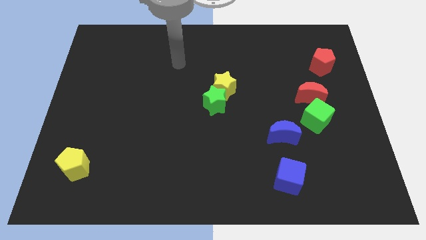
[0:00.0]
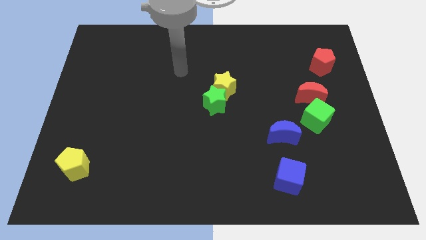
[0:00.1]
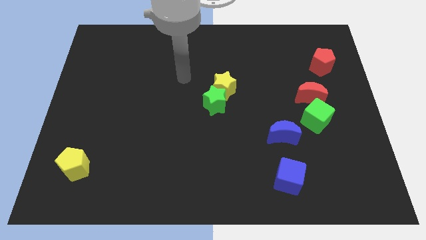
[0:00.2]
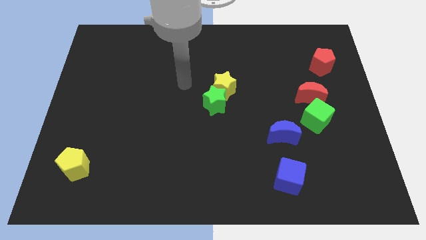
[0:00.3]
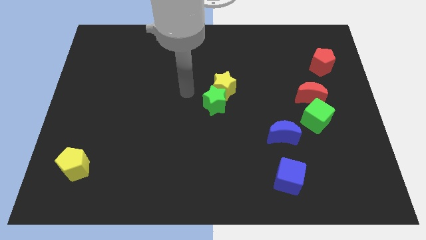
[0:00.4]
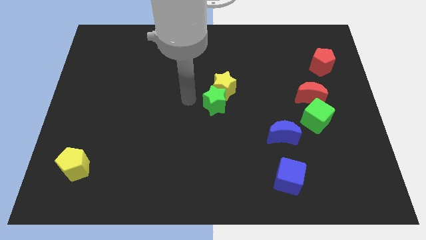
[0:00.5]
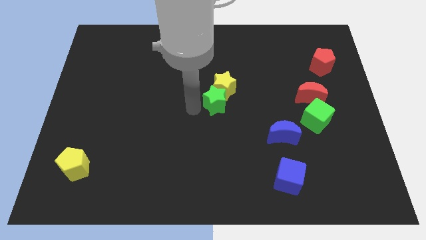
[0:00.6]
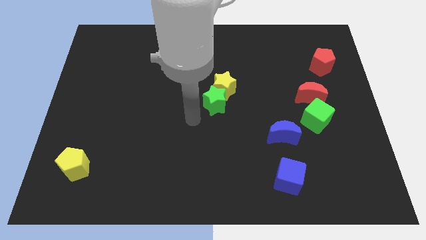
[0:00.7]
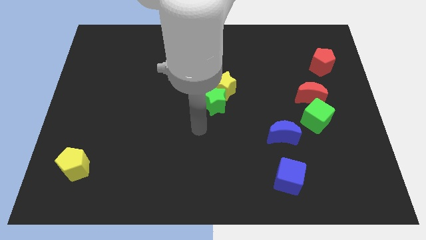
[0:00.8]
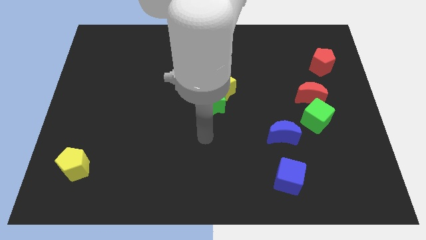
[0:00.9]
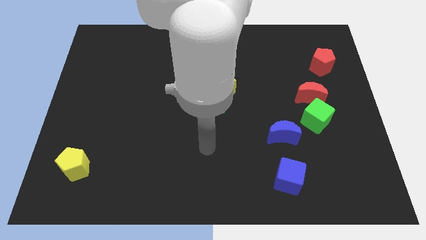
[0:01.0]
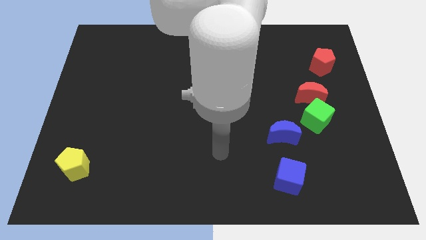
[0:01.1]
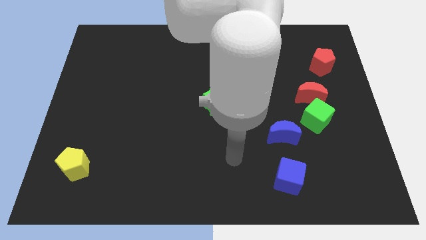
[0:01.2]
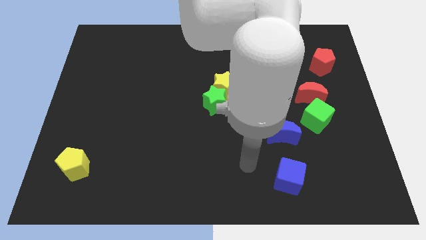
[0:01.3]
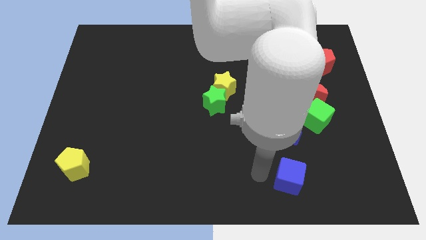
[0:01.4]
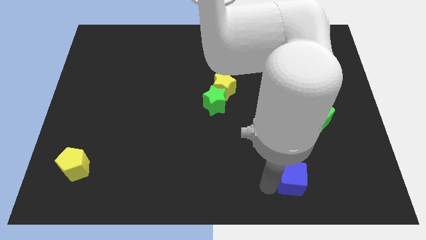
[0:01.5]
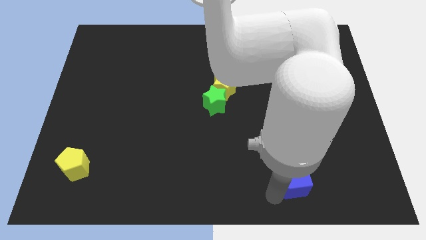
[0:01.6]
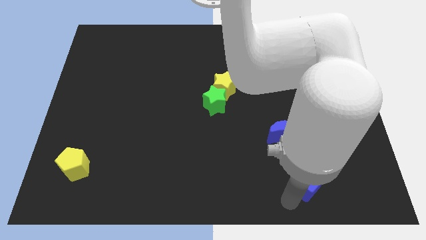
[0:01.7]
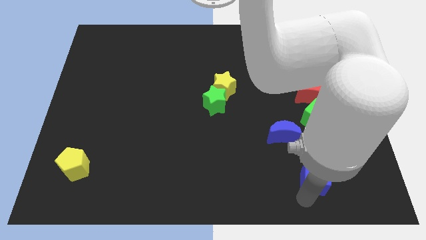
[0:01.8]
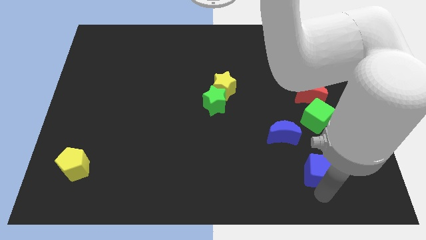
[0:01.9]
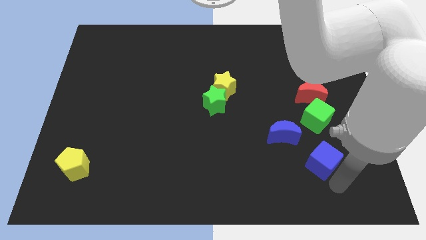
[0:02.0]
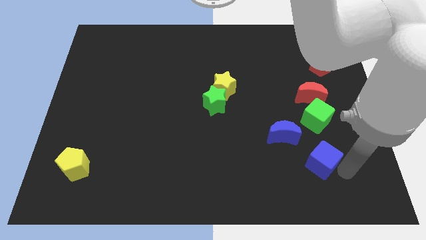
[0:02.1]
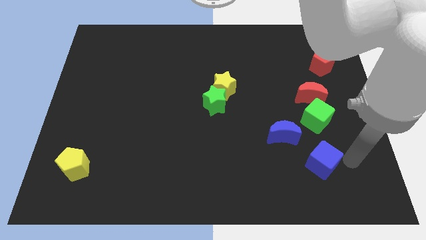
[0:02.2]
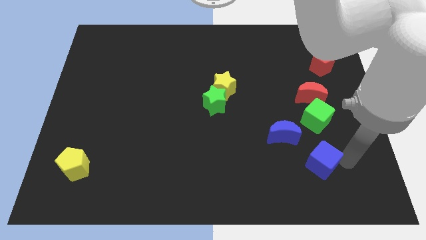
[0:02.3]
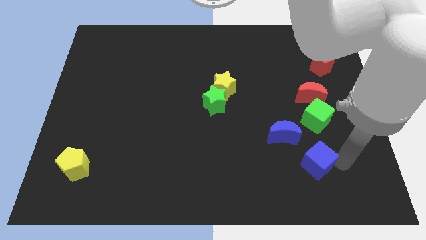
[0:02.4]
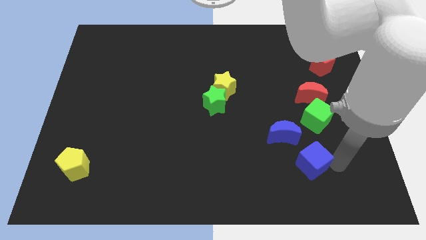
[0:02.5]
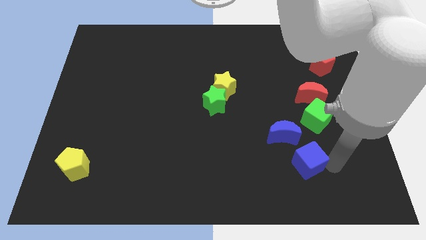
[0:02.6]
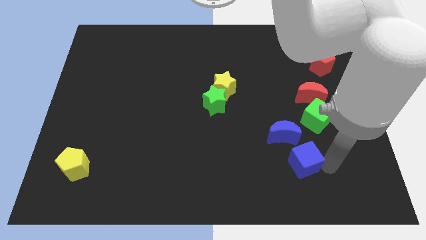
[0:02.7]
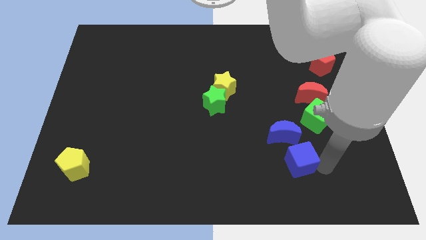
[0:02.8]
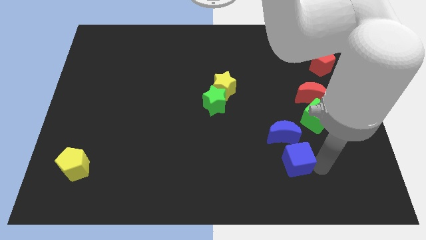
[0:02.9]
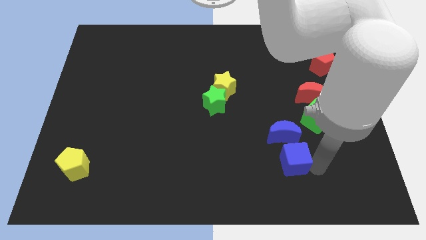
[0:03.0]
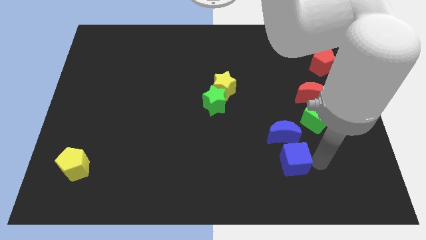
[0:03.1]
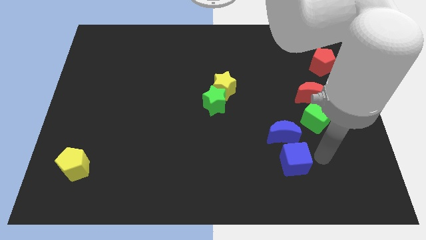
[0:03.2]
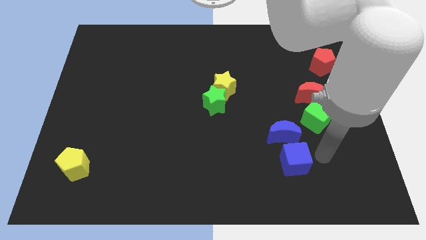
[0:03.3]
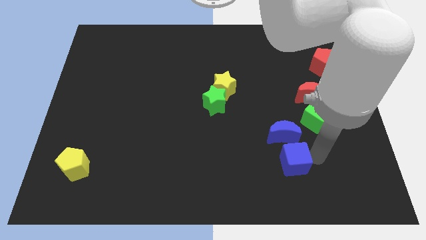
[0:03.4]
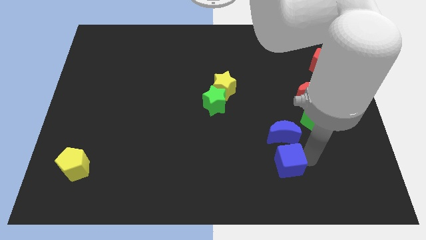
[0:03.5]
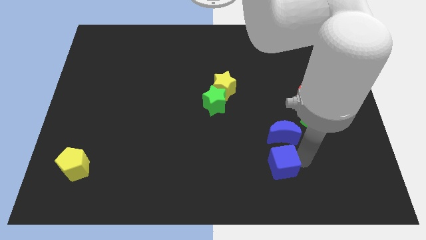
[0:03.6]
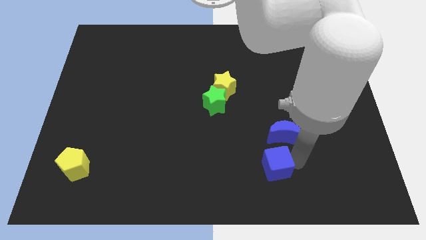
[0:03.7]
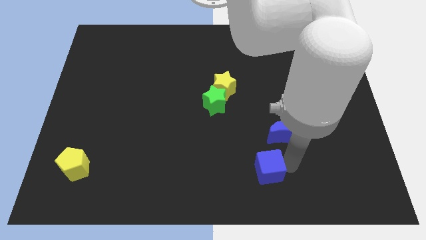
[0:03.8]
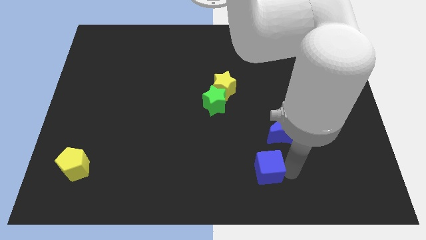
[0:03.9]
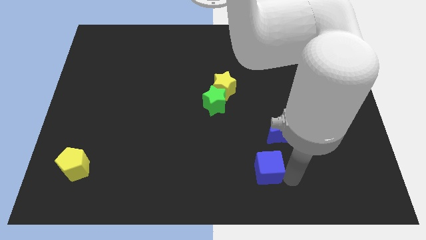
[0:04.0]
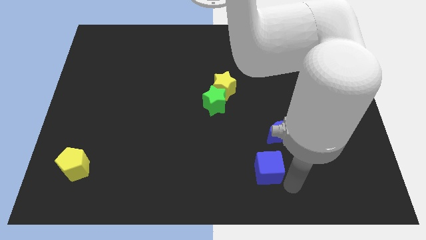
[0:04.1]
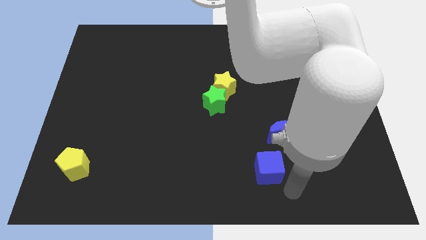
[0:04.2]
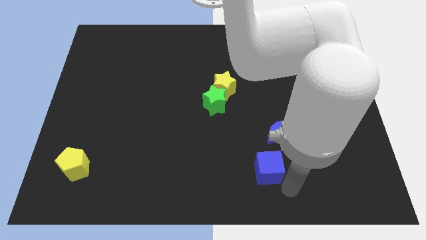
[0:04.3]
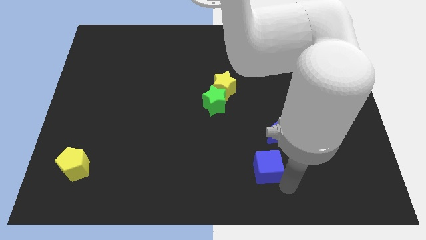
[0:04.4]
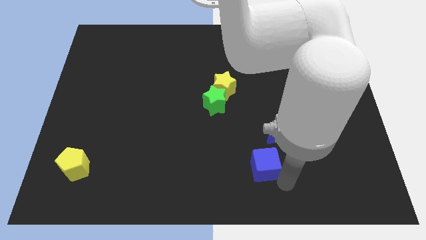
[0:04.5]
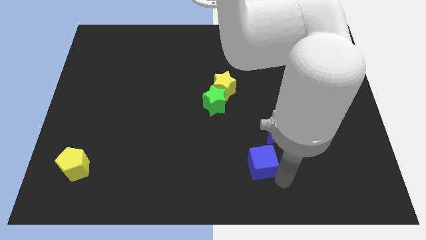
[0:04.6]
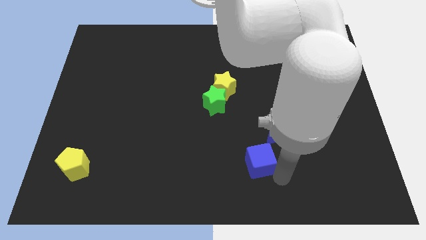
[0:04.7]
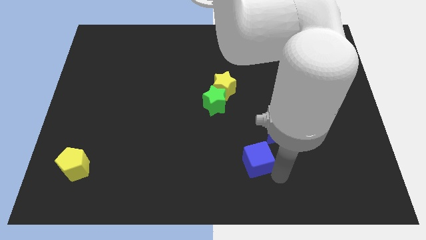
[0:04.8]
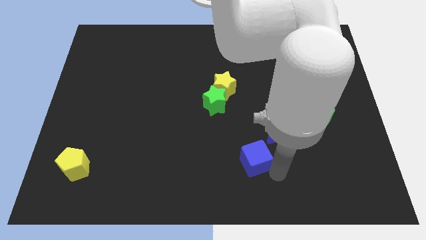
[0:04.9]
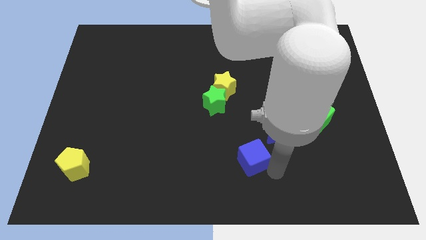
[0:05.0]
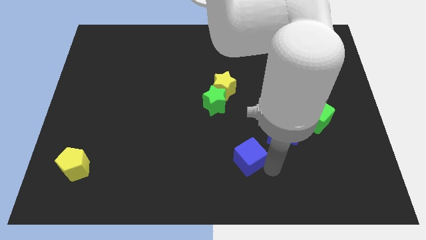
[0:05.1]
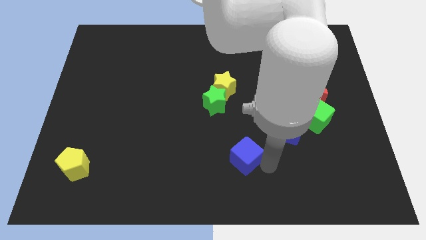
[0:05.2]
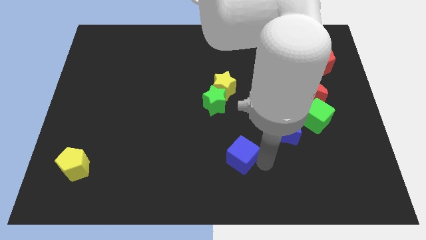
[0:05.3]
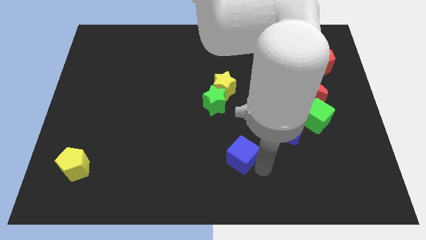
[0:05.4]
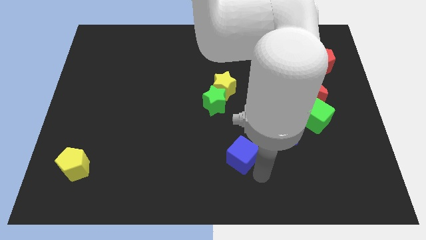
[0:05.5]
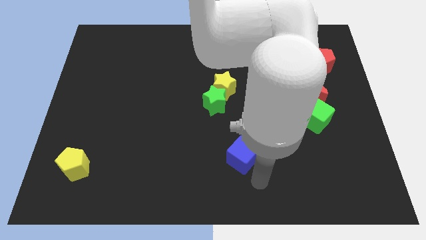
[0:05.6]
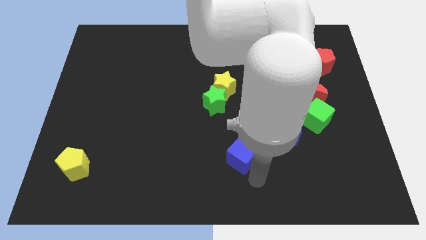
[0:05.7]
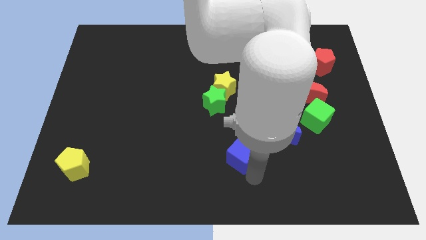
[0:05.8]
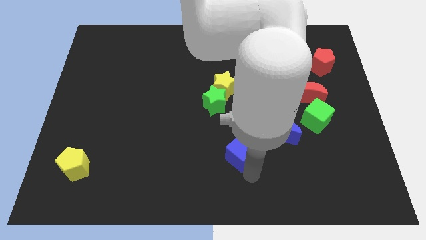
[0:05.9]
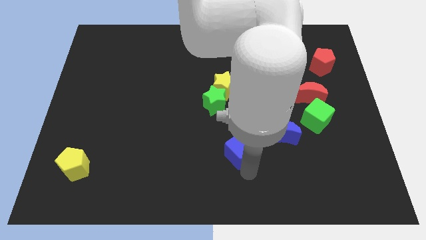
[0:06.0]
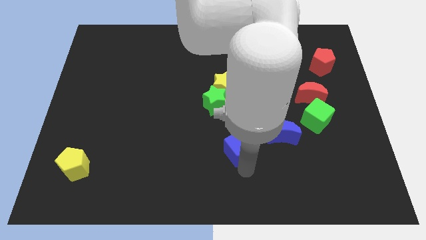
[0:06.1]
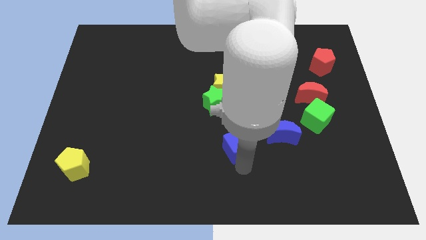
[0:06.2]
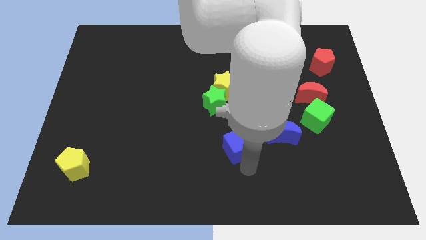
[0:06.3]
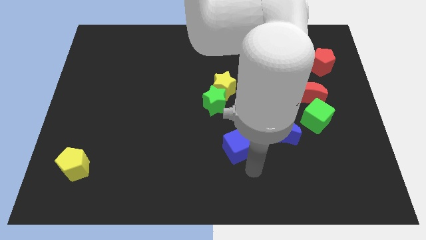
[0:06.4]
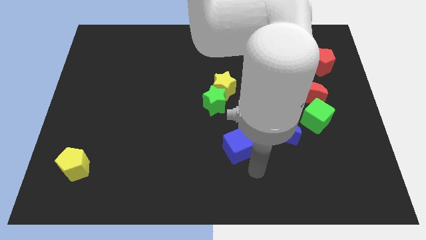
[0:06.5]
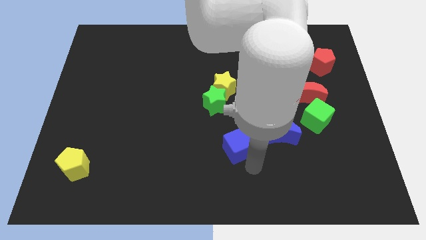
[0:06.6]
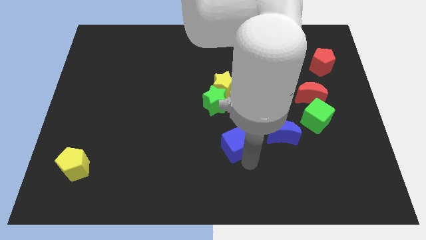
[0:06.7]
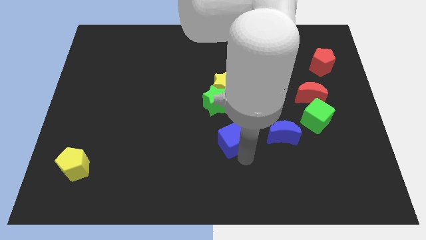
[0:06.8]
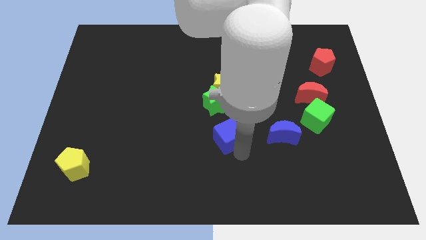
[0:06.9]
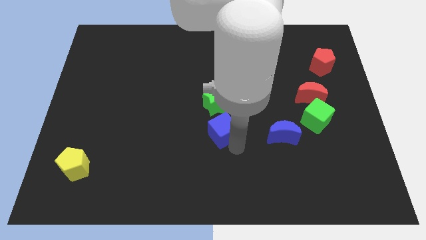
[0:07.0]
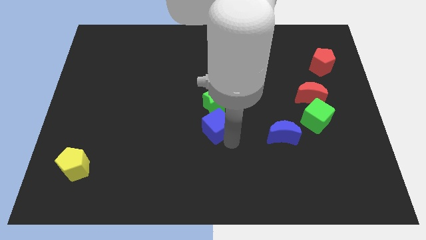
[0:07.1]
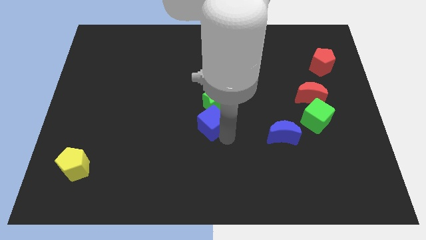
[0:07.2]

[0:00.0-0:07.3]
slide the blue cube upwards and then to the left

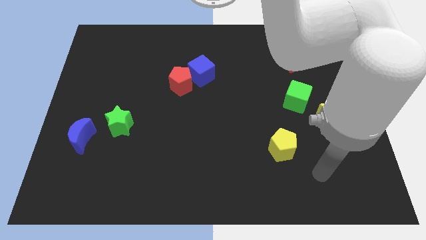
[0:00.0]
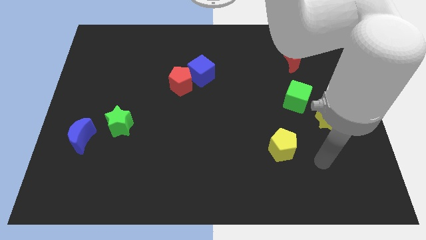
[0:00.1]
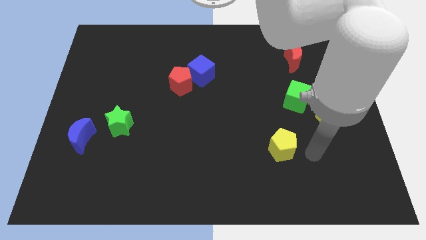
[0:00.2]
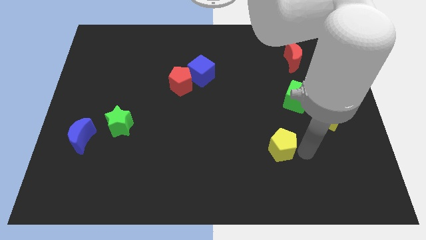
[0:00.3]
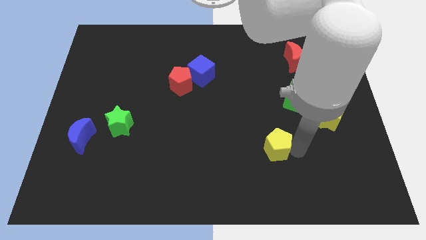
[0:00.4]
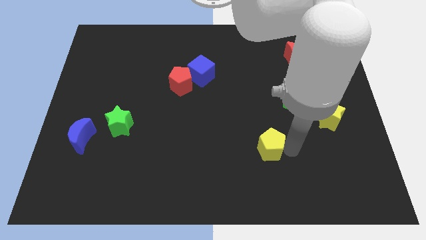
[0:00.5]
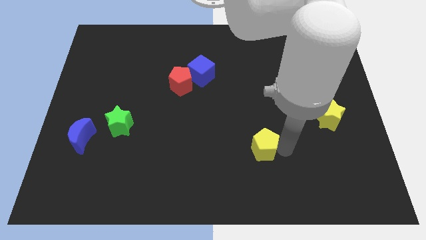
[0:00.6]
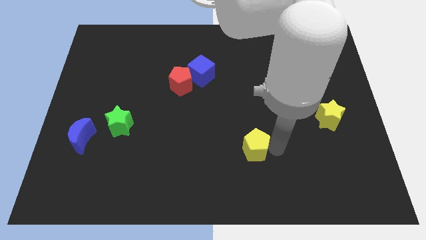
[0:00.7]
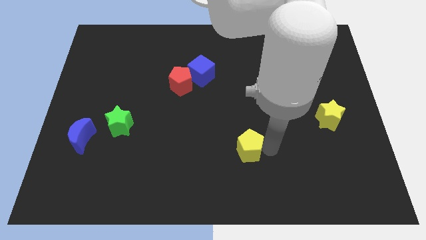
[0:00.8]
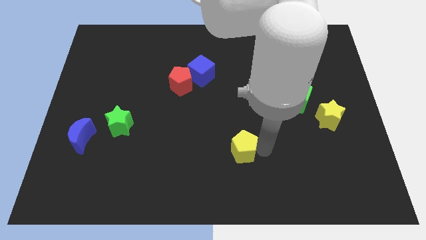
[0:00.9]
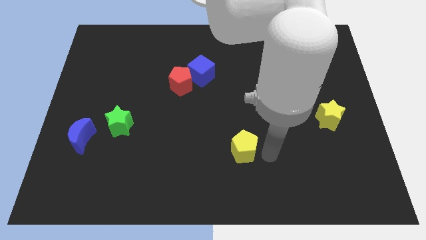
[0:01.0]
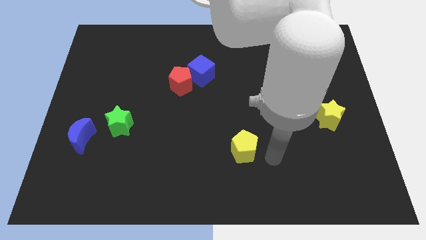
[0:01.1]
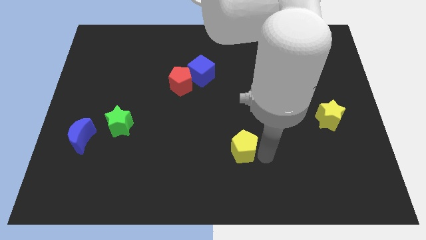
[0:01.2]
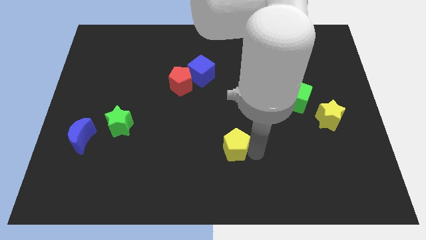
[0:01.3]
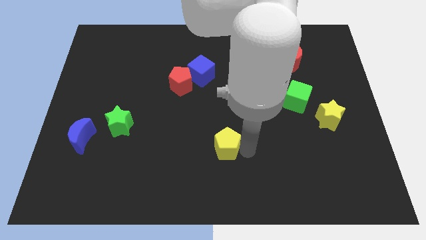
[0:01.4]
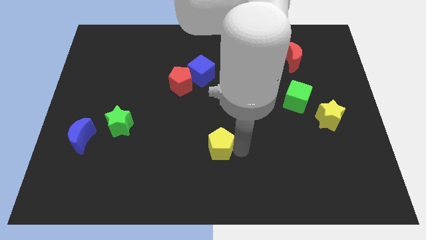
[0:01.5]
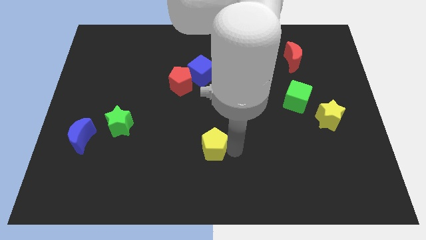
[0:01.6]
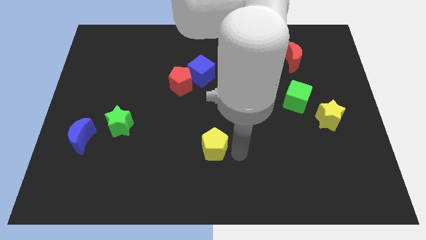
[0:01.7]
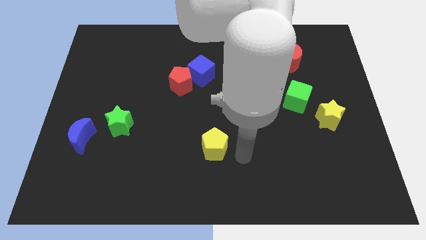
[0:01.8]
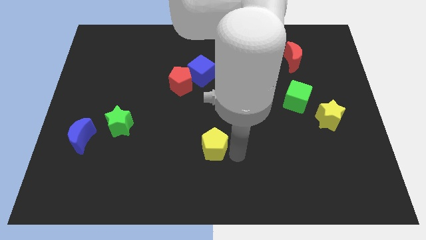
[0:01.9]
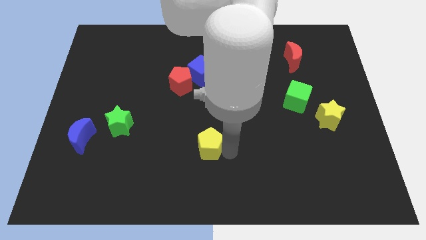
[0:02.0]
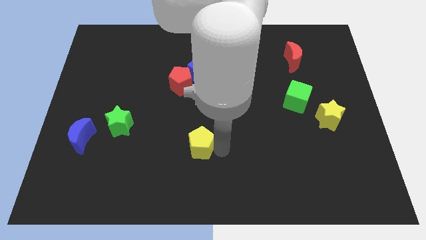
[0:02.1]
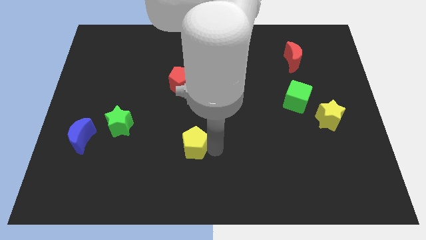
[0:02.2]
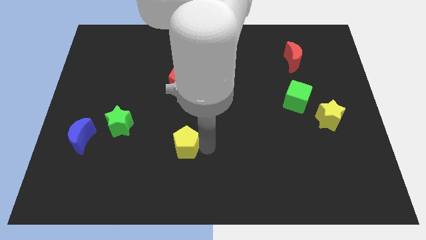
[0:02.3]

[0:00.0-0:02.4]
move the yellow pentagon to the left
